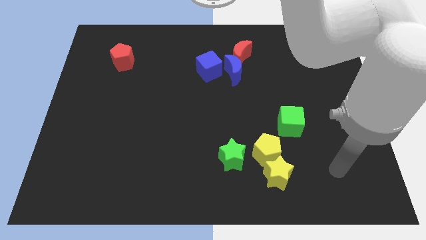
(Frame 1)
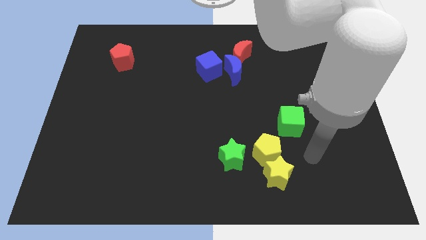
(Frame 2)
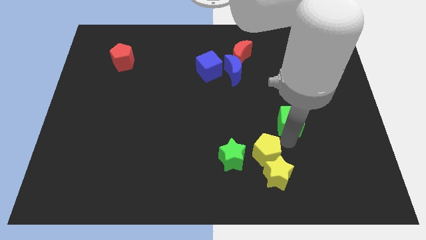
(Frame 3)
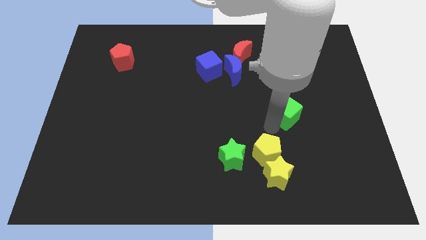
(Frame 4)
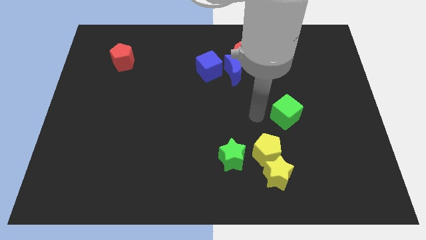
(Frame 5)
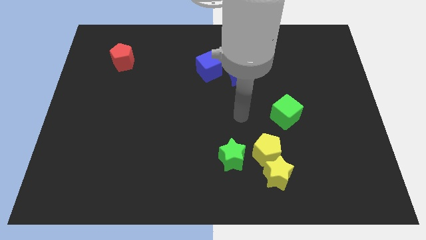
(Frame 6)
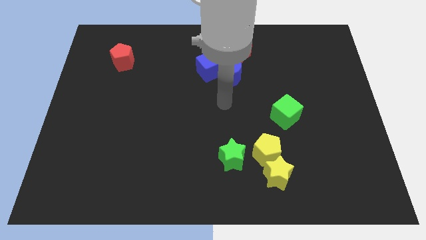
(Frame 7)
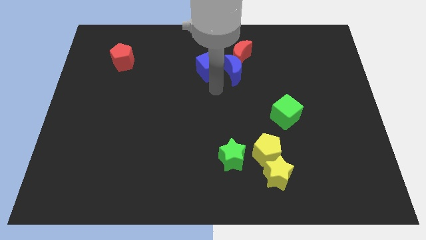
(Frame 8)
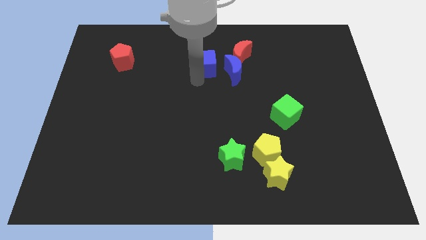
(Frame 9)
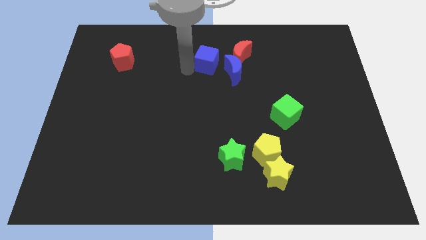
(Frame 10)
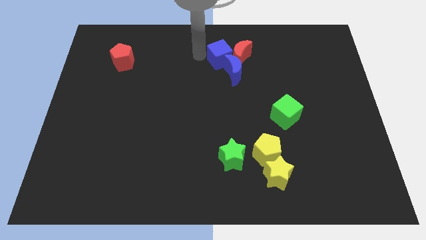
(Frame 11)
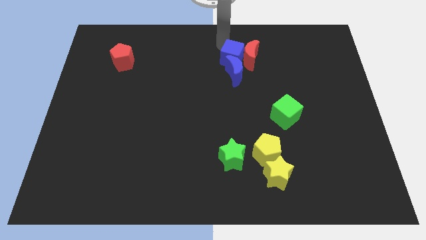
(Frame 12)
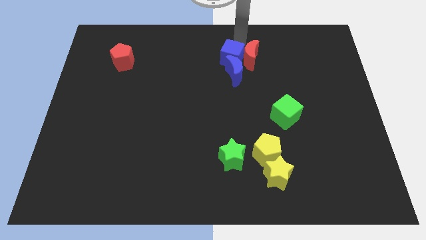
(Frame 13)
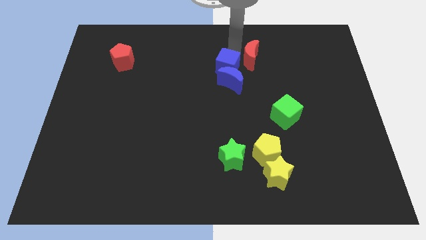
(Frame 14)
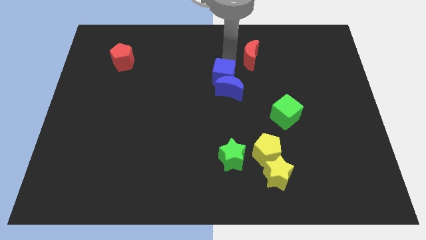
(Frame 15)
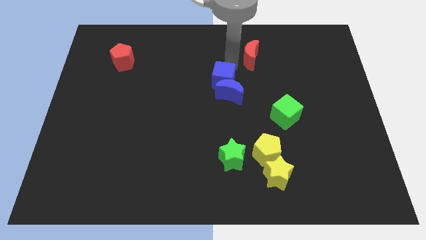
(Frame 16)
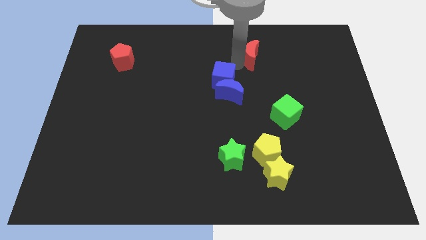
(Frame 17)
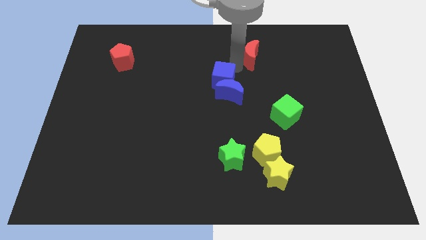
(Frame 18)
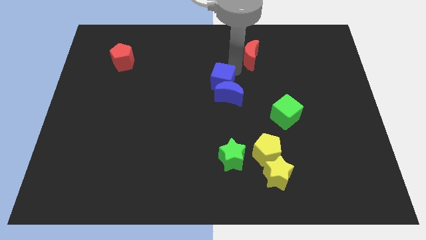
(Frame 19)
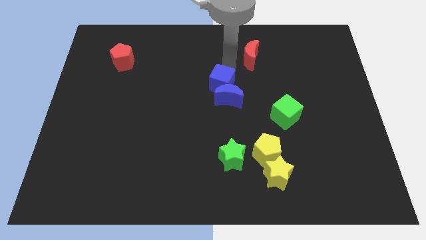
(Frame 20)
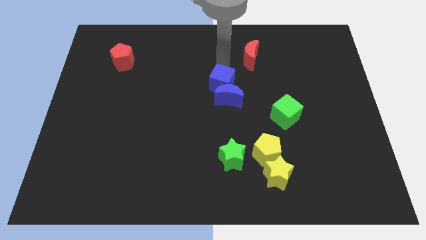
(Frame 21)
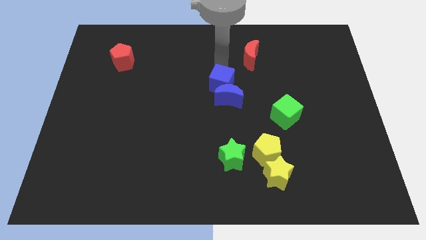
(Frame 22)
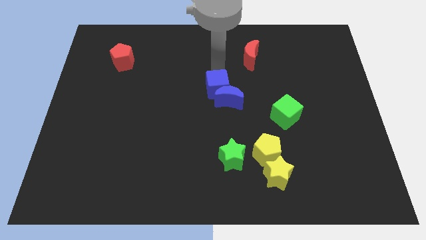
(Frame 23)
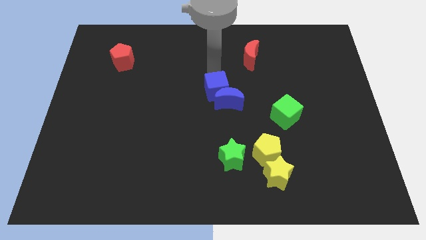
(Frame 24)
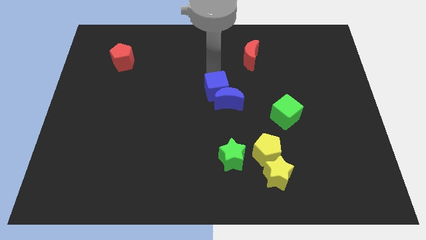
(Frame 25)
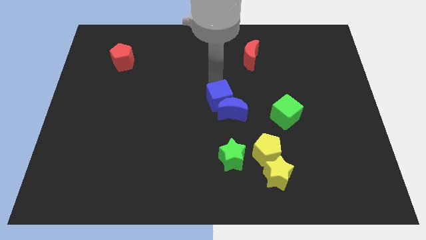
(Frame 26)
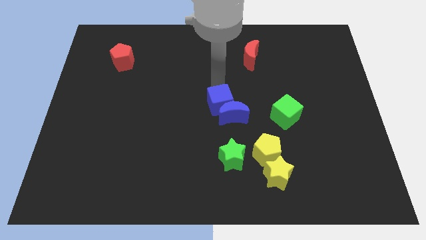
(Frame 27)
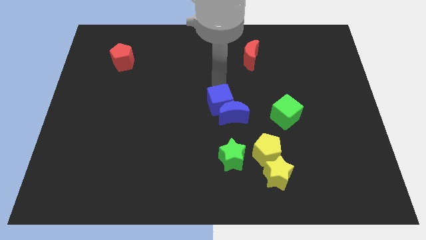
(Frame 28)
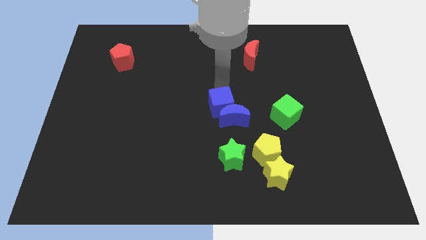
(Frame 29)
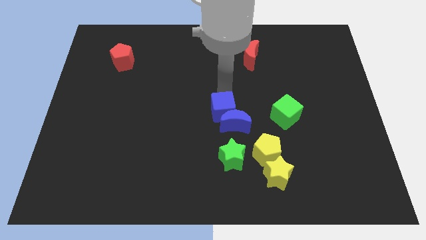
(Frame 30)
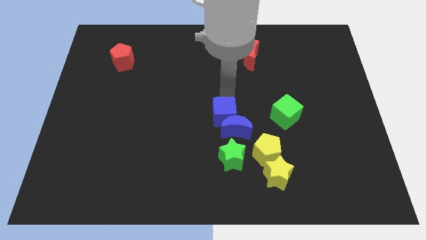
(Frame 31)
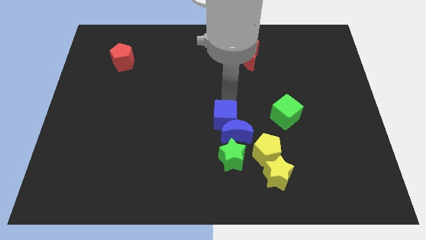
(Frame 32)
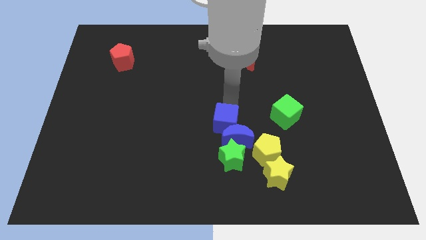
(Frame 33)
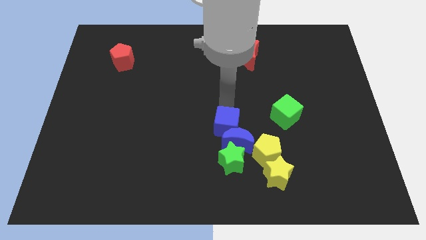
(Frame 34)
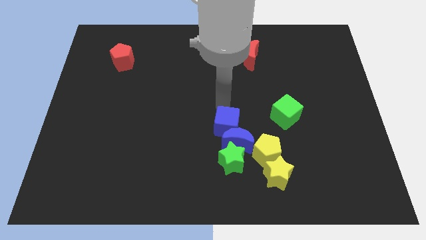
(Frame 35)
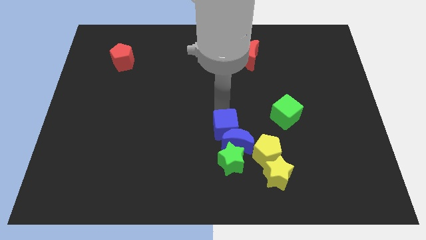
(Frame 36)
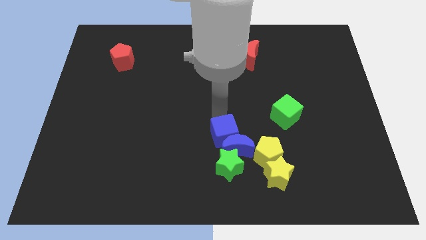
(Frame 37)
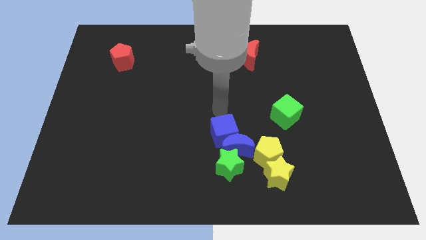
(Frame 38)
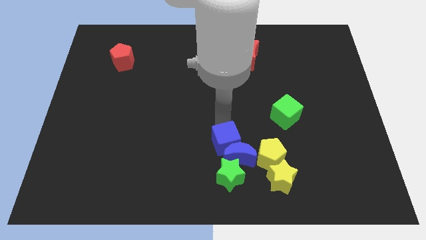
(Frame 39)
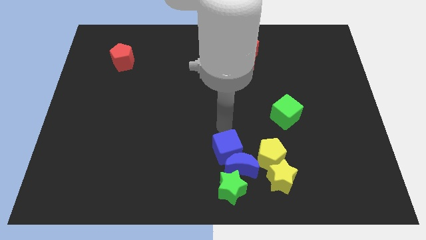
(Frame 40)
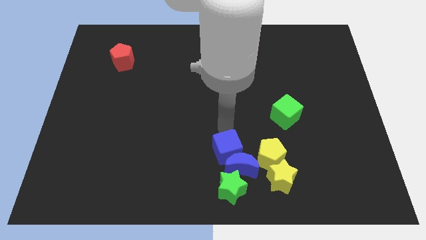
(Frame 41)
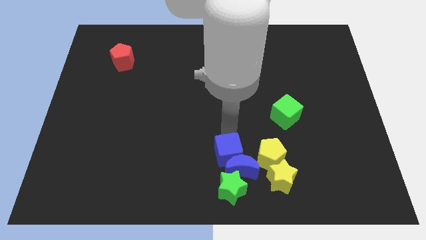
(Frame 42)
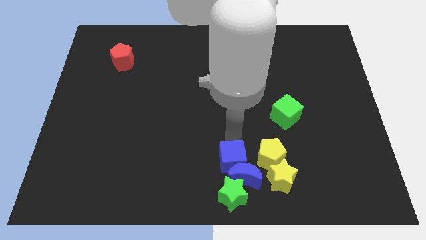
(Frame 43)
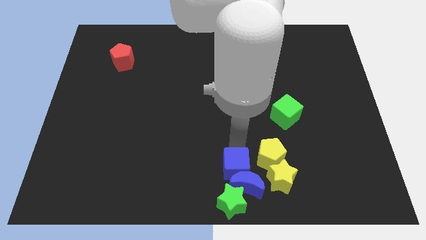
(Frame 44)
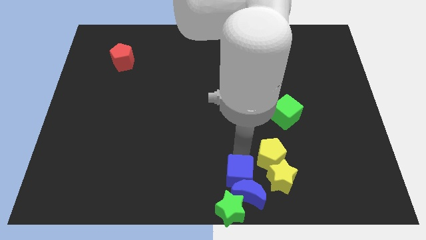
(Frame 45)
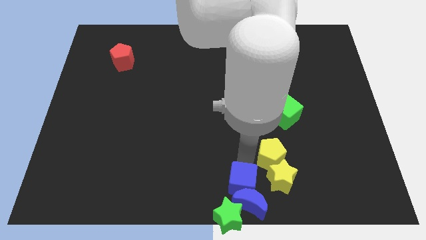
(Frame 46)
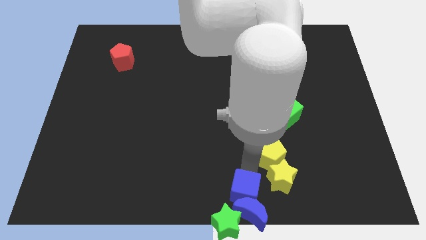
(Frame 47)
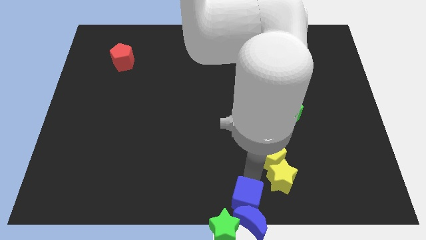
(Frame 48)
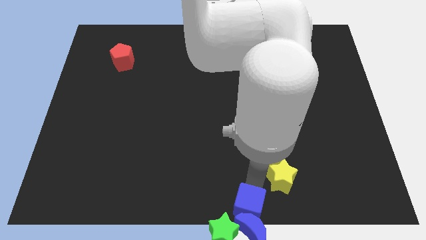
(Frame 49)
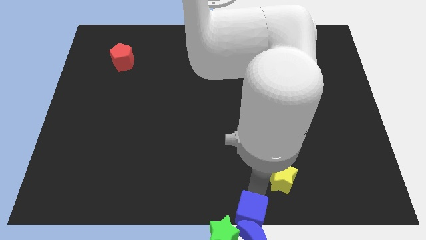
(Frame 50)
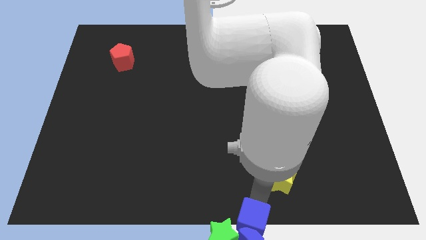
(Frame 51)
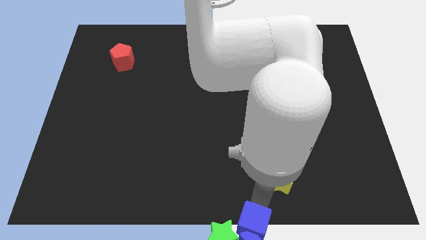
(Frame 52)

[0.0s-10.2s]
push the blue cube towards the green star

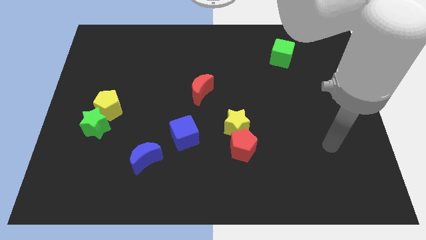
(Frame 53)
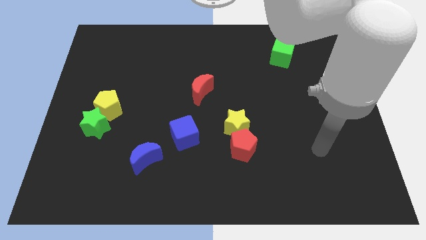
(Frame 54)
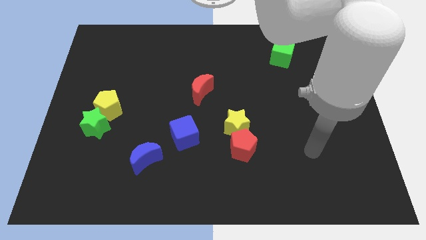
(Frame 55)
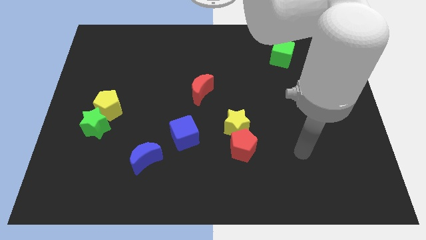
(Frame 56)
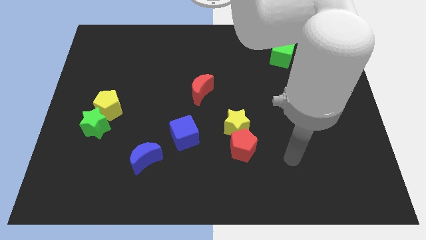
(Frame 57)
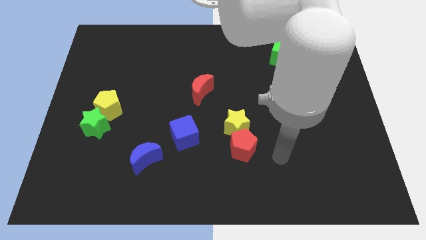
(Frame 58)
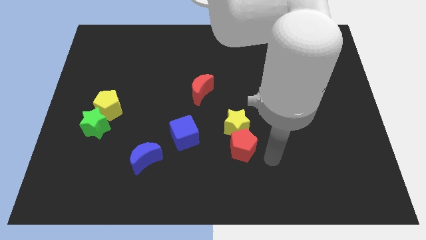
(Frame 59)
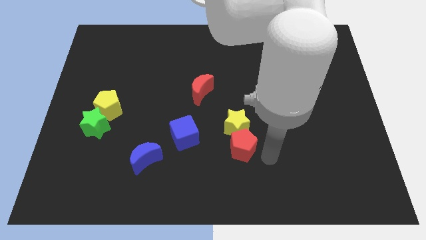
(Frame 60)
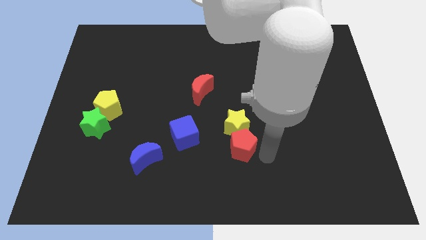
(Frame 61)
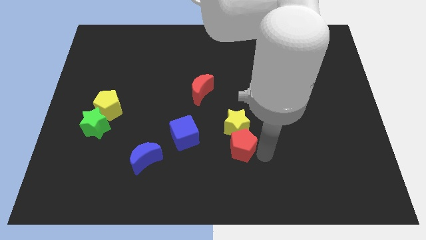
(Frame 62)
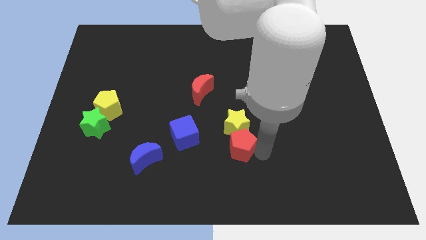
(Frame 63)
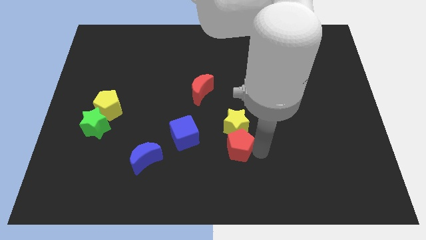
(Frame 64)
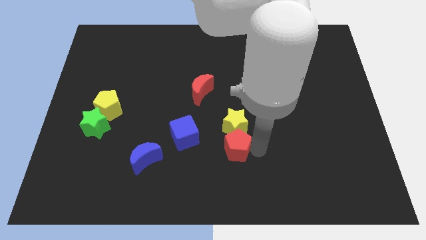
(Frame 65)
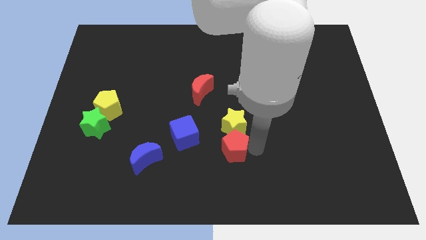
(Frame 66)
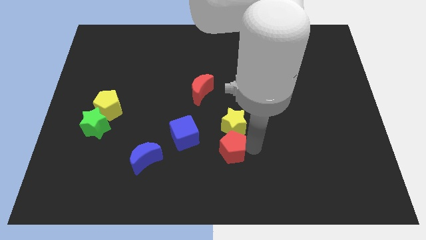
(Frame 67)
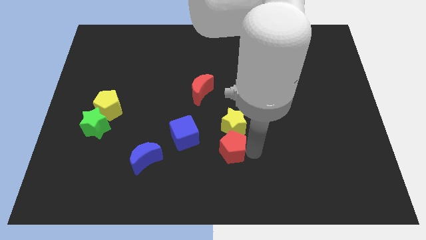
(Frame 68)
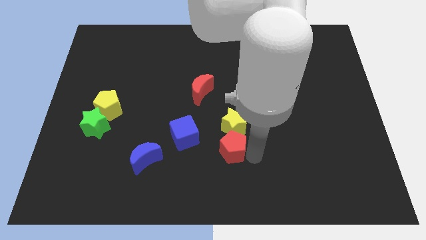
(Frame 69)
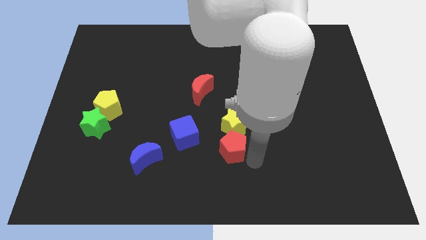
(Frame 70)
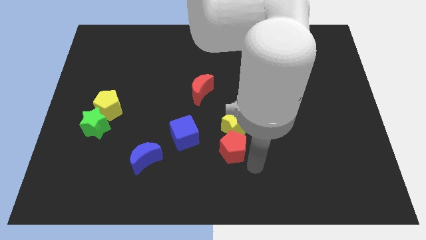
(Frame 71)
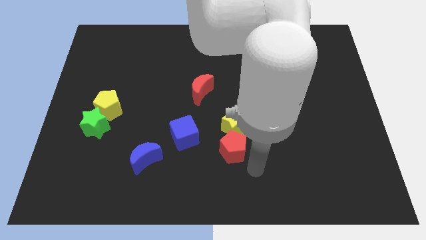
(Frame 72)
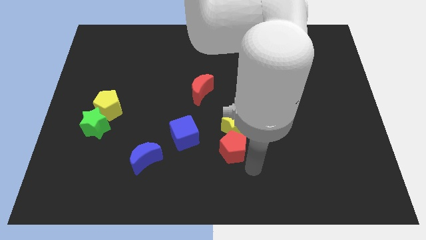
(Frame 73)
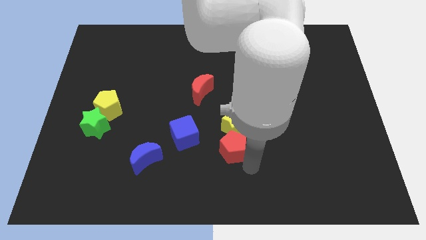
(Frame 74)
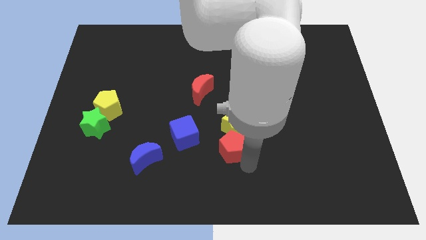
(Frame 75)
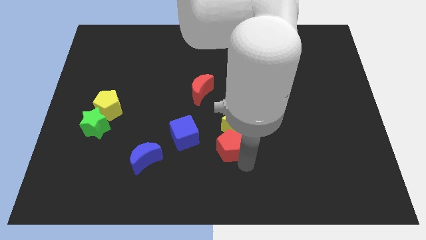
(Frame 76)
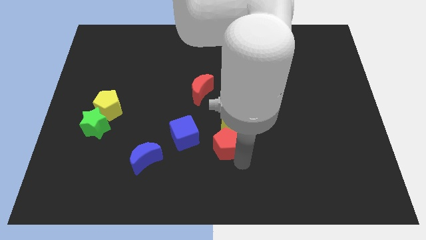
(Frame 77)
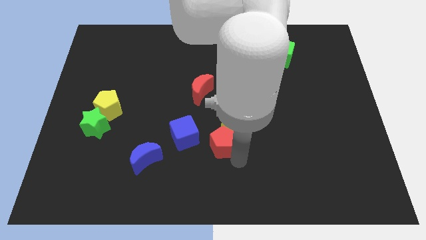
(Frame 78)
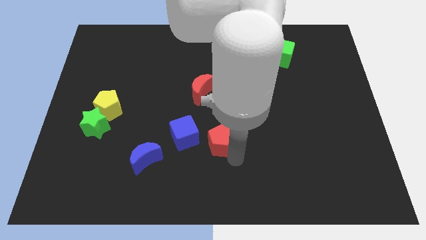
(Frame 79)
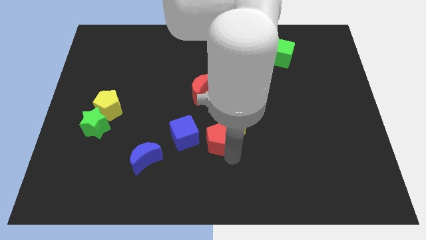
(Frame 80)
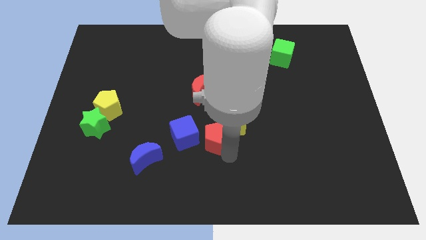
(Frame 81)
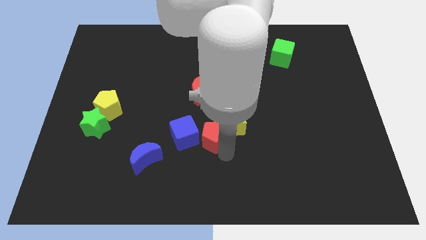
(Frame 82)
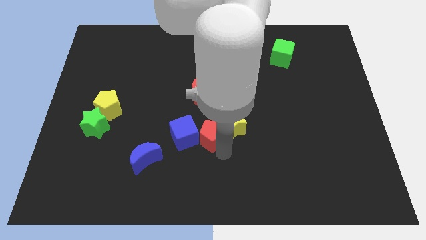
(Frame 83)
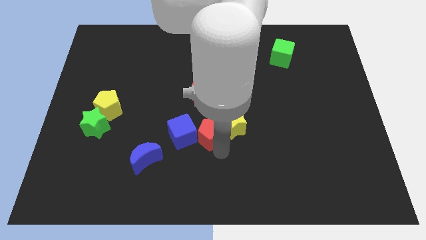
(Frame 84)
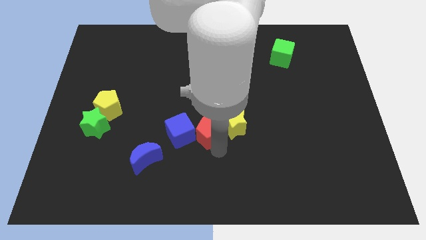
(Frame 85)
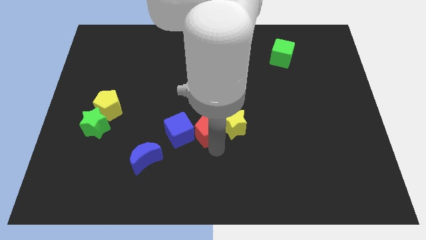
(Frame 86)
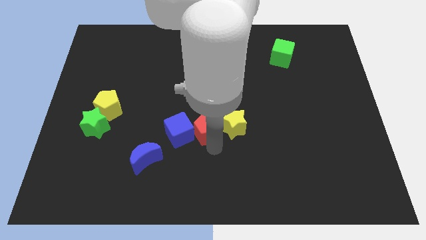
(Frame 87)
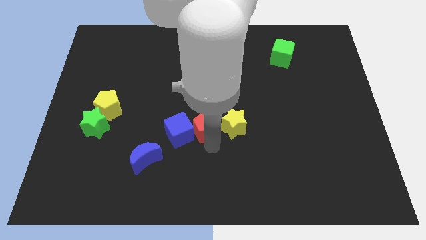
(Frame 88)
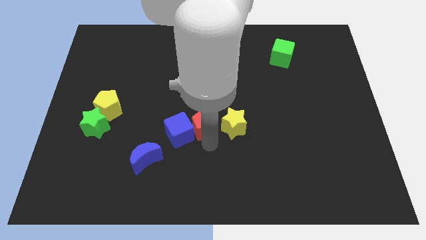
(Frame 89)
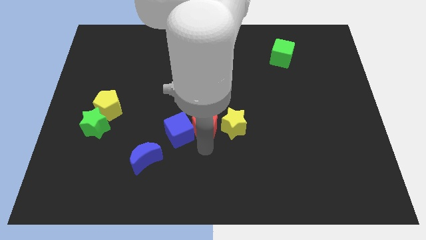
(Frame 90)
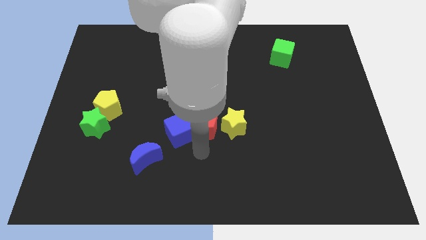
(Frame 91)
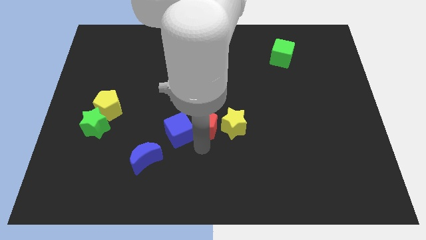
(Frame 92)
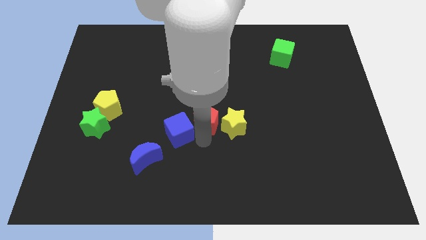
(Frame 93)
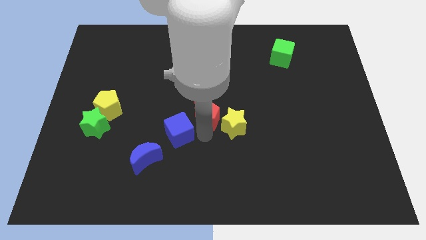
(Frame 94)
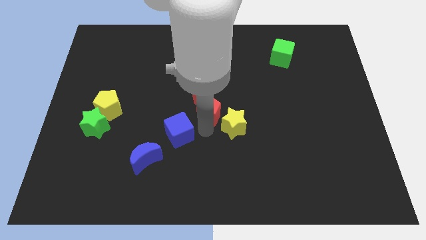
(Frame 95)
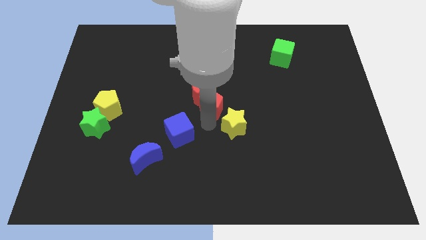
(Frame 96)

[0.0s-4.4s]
put the red pentagon next to the red moon
